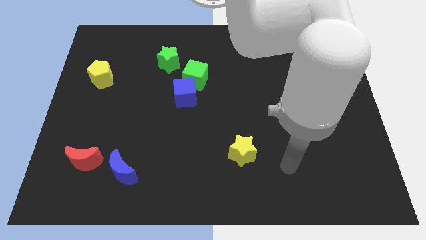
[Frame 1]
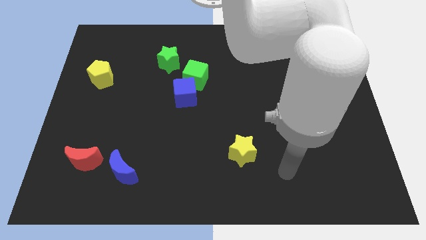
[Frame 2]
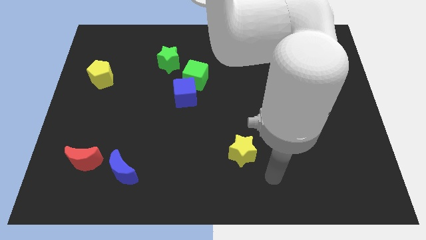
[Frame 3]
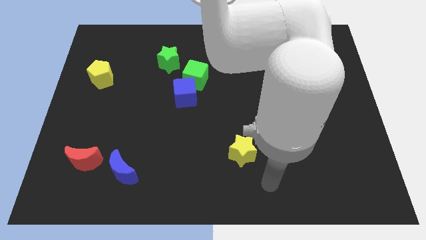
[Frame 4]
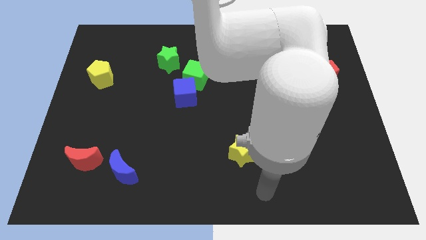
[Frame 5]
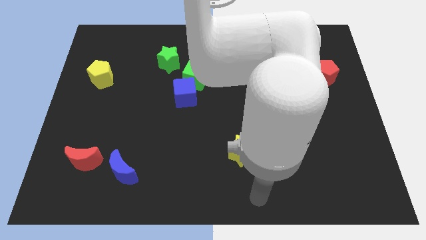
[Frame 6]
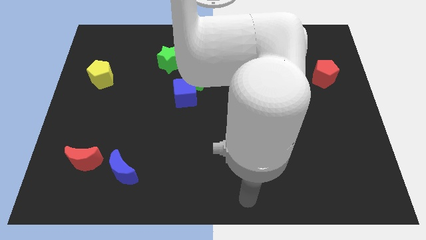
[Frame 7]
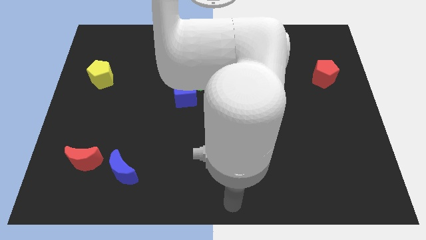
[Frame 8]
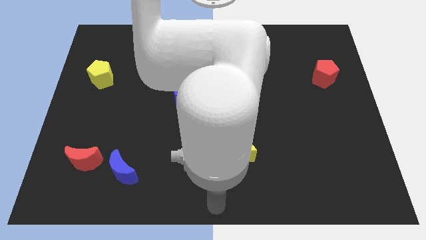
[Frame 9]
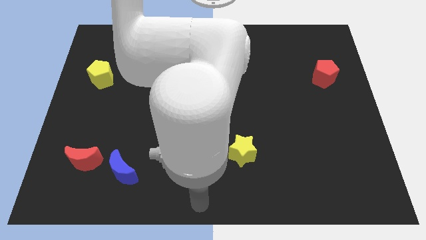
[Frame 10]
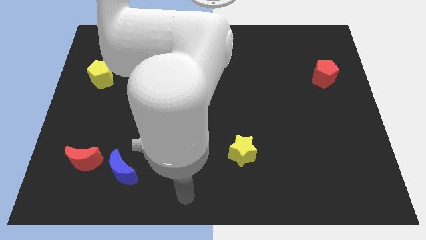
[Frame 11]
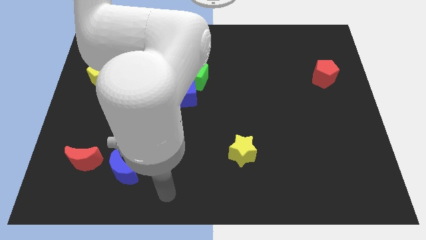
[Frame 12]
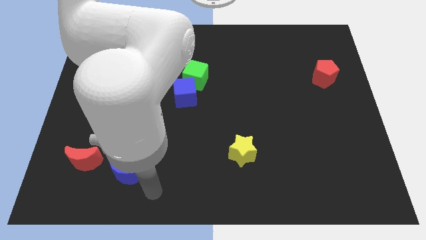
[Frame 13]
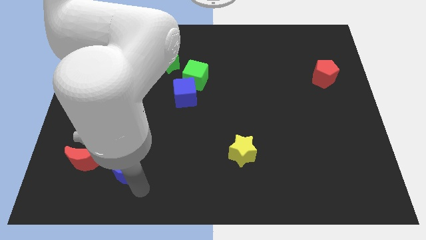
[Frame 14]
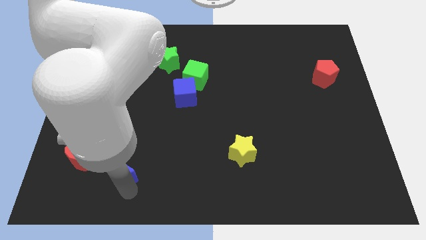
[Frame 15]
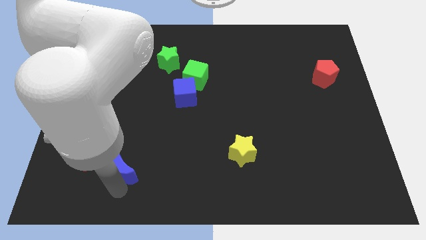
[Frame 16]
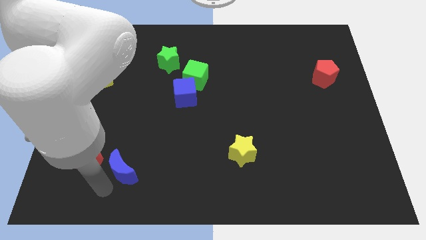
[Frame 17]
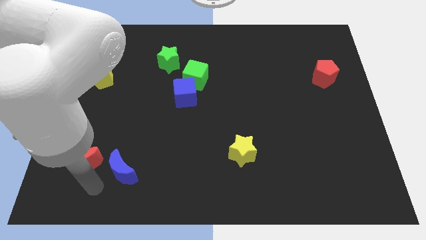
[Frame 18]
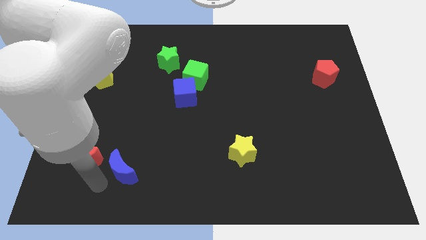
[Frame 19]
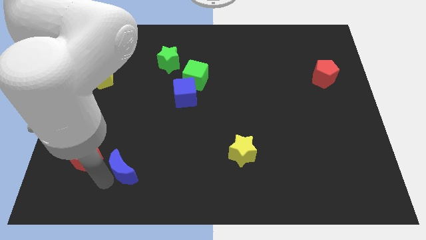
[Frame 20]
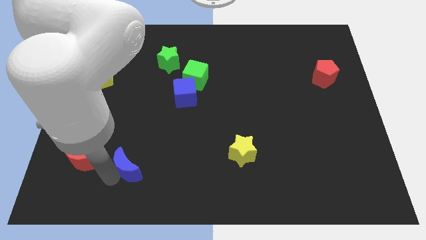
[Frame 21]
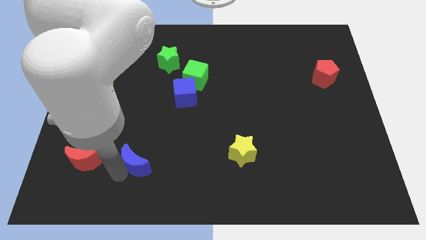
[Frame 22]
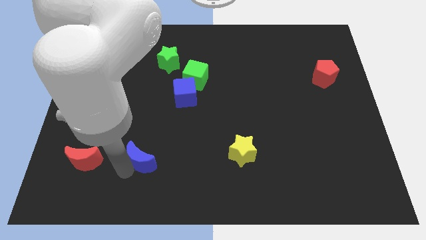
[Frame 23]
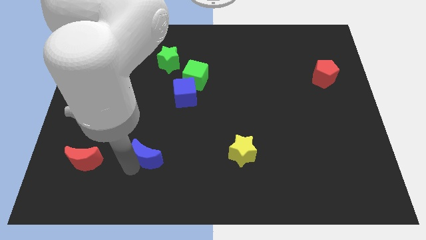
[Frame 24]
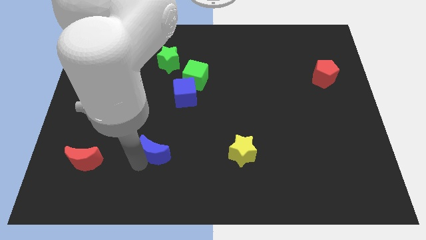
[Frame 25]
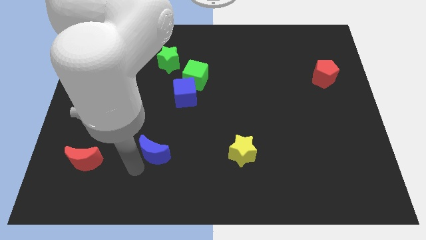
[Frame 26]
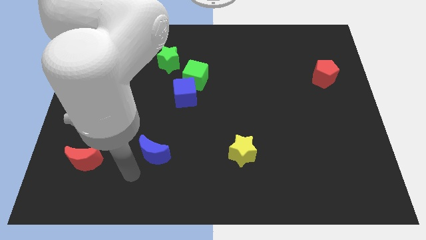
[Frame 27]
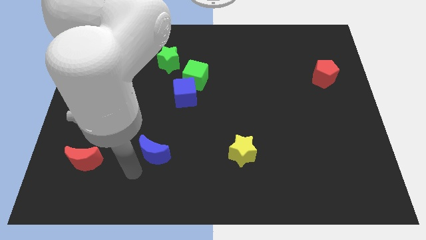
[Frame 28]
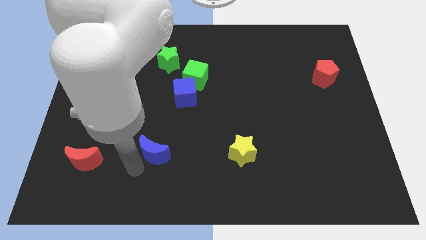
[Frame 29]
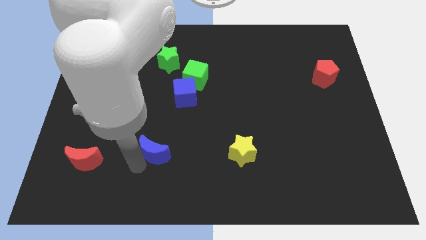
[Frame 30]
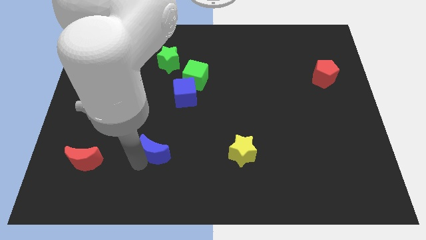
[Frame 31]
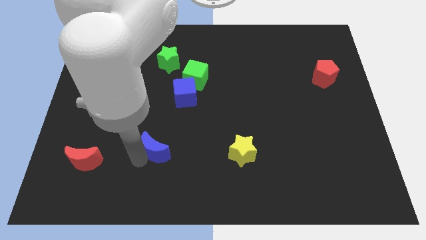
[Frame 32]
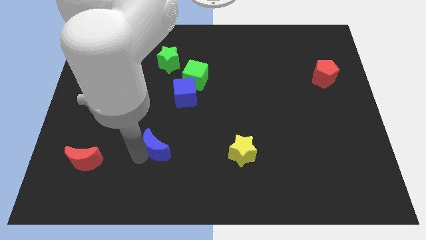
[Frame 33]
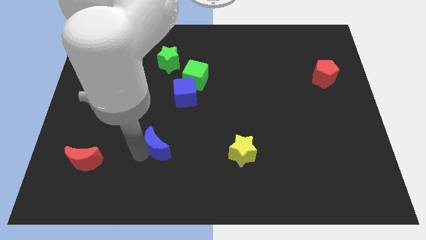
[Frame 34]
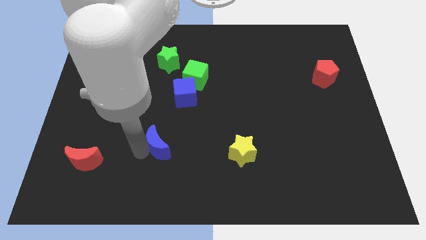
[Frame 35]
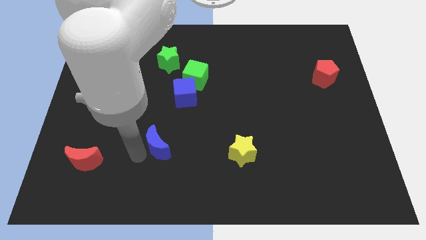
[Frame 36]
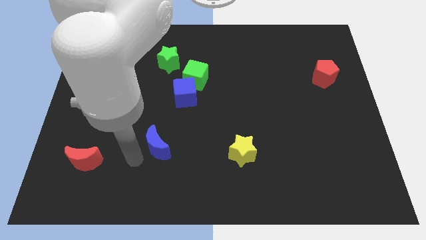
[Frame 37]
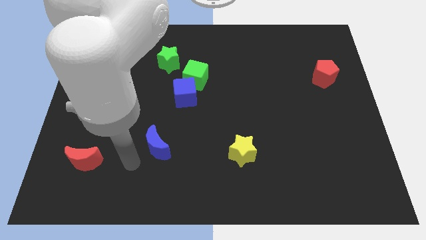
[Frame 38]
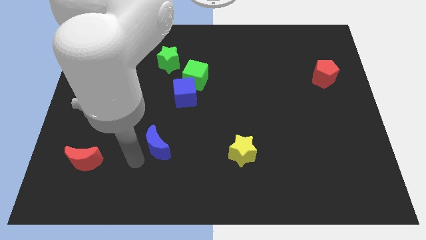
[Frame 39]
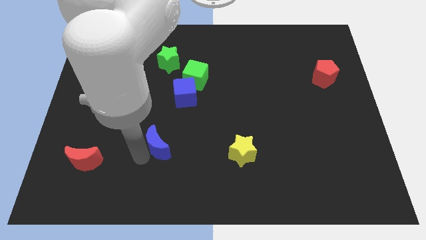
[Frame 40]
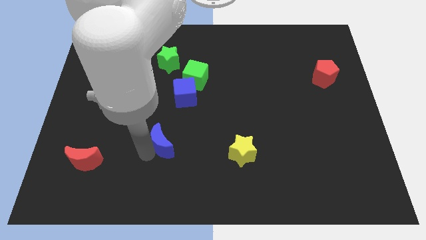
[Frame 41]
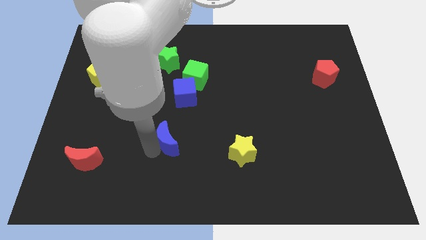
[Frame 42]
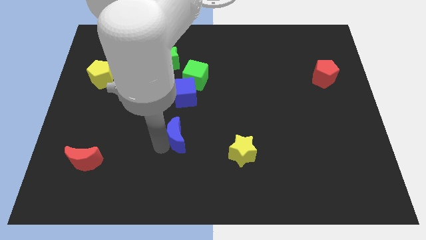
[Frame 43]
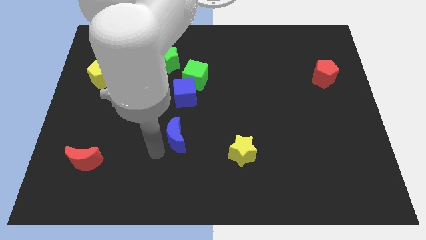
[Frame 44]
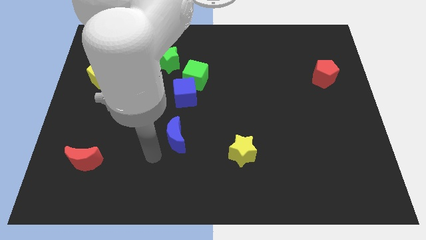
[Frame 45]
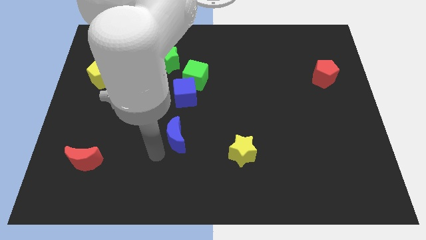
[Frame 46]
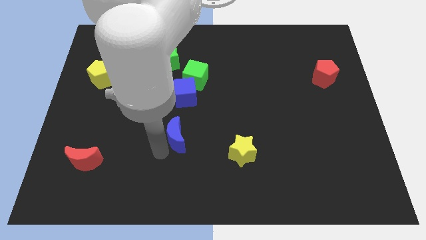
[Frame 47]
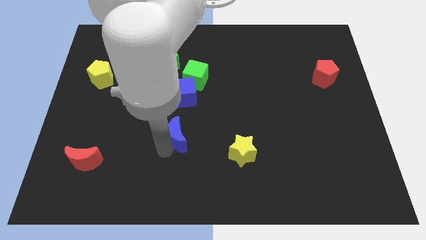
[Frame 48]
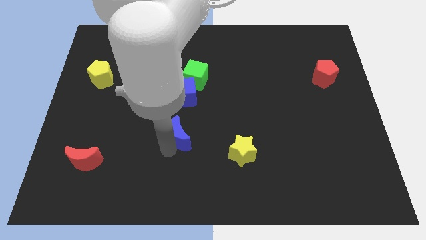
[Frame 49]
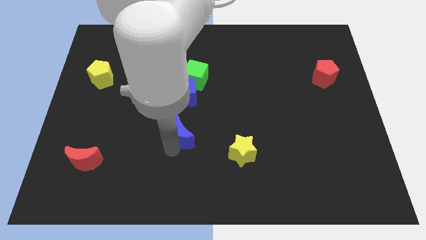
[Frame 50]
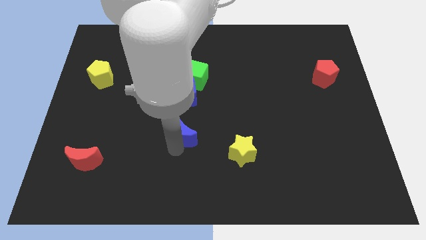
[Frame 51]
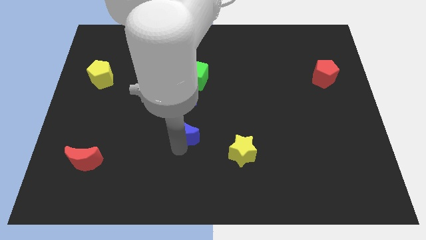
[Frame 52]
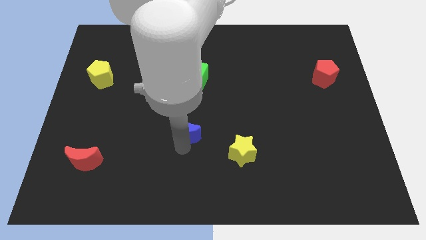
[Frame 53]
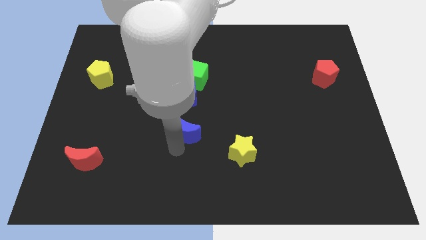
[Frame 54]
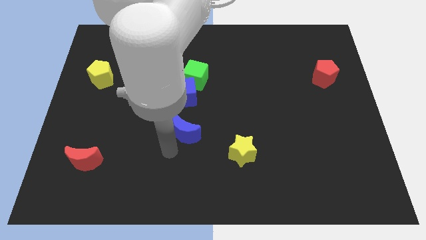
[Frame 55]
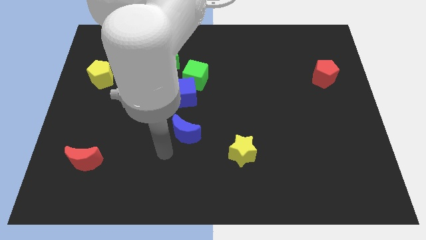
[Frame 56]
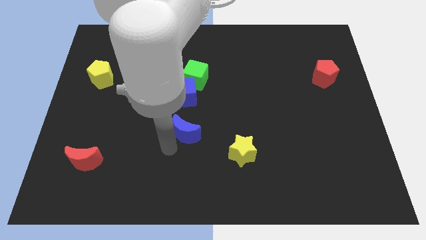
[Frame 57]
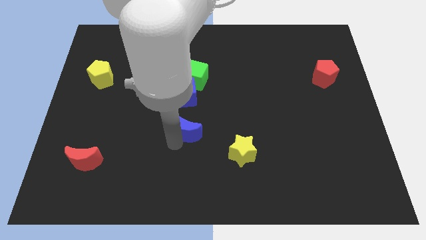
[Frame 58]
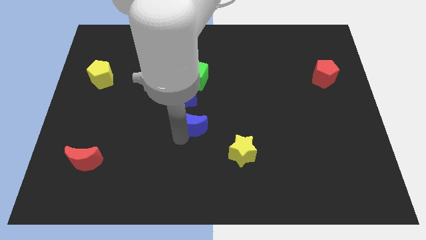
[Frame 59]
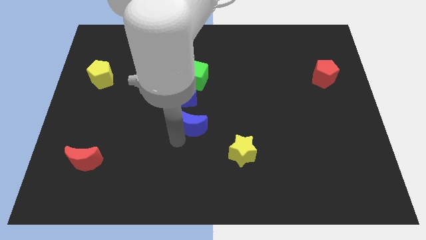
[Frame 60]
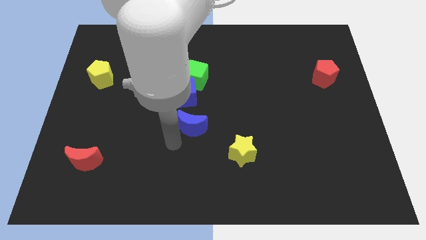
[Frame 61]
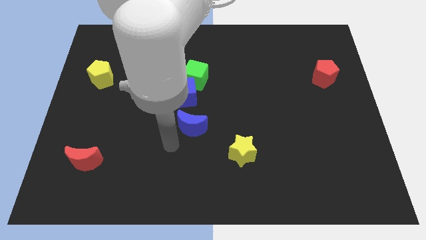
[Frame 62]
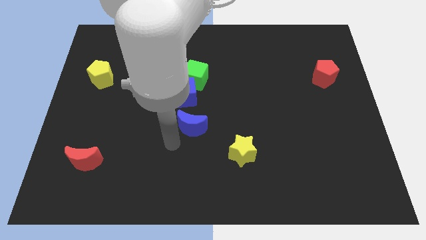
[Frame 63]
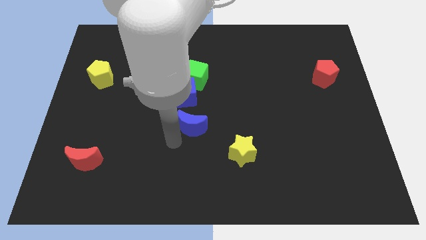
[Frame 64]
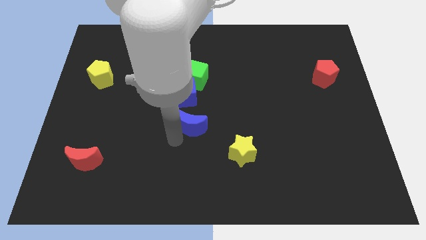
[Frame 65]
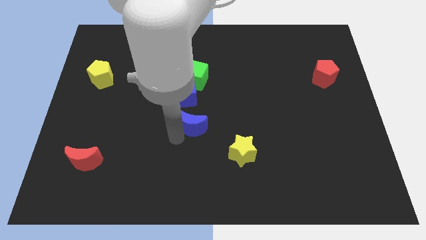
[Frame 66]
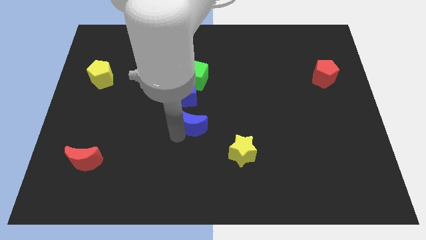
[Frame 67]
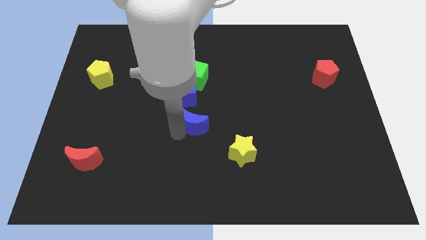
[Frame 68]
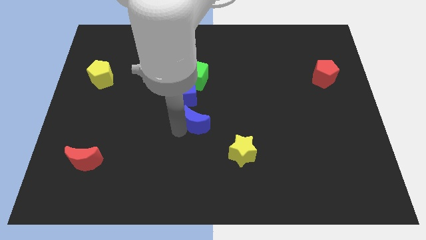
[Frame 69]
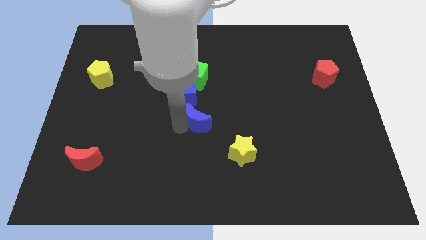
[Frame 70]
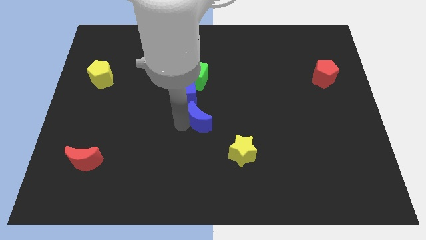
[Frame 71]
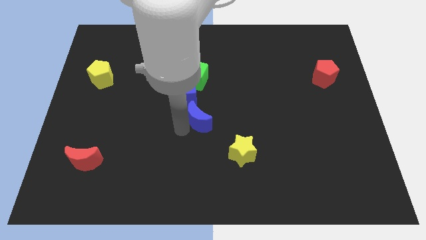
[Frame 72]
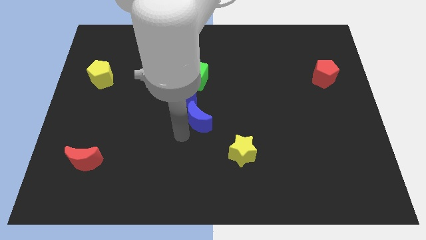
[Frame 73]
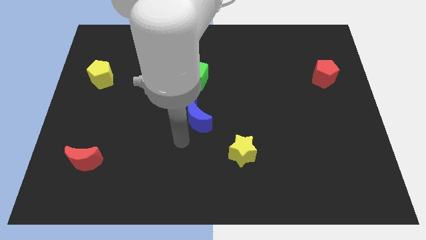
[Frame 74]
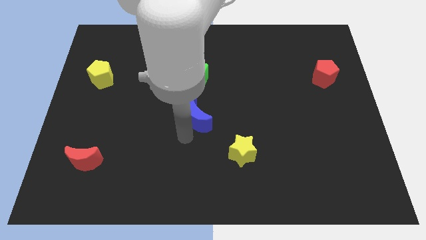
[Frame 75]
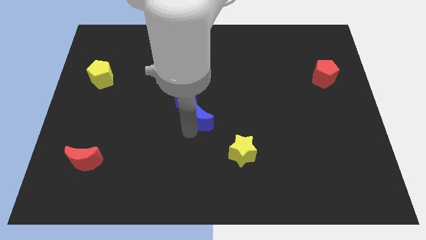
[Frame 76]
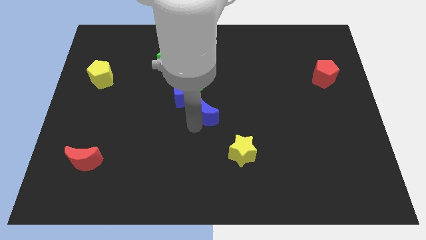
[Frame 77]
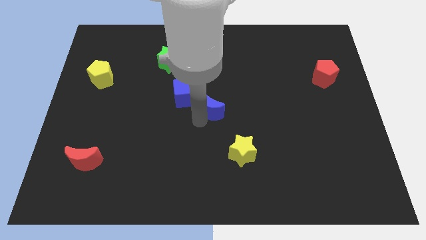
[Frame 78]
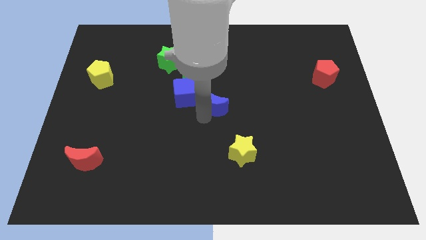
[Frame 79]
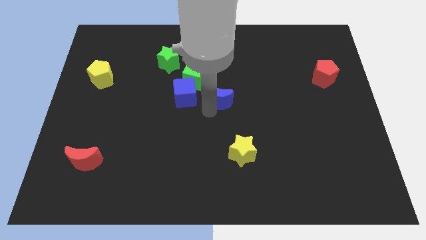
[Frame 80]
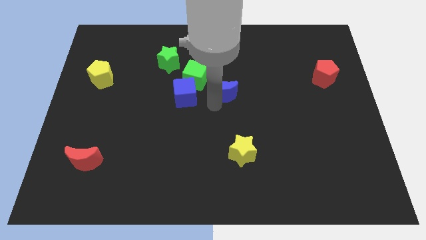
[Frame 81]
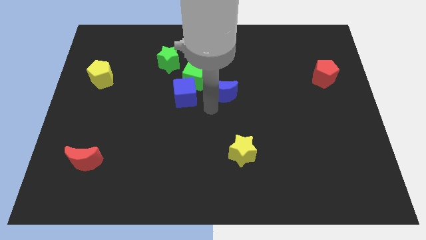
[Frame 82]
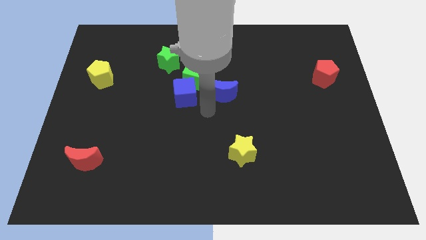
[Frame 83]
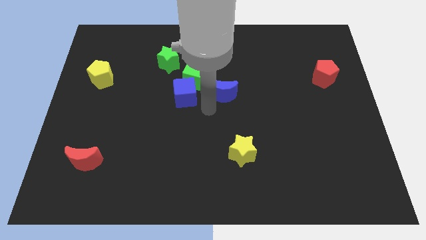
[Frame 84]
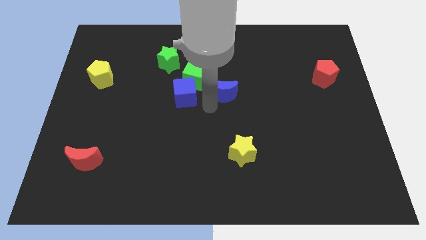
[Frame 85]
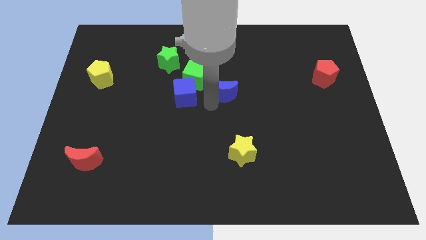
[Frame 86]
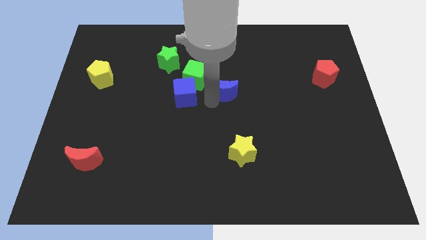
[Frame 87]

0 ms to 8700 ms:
put the blue moon just right of the green cube
